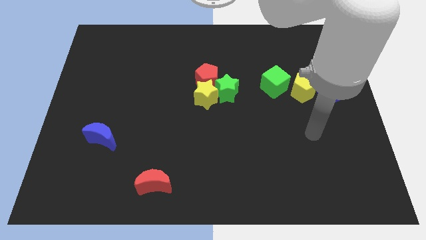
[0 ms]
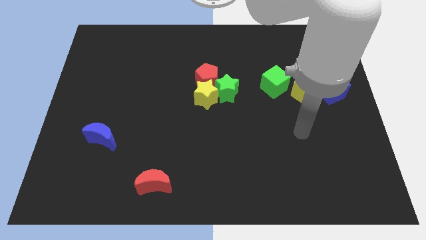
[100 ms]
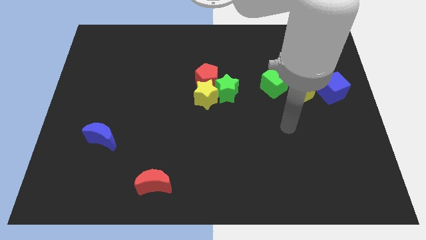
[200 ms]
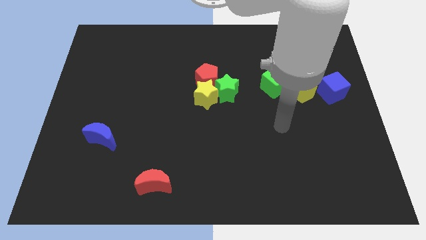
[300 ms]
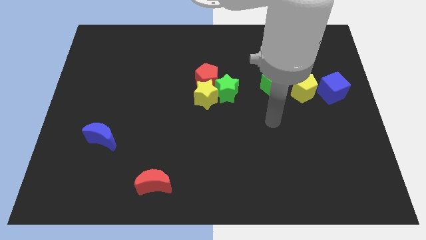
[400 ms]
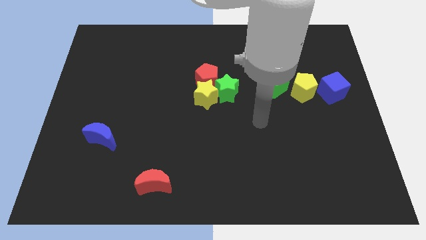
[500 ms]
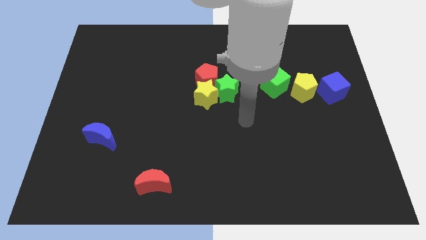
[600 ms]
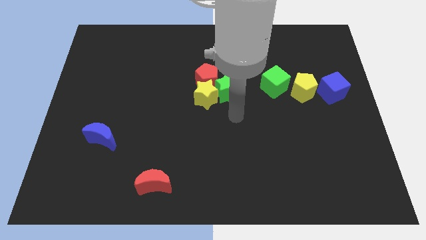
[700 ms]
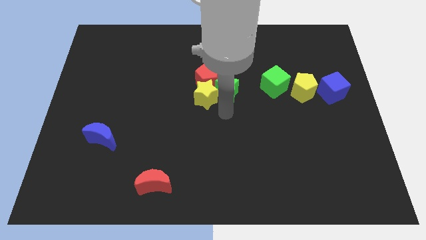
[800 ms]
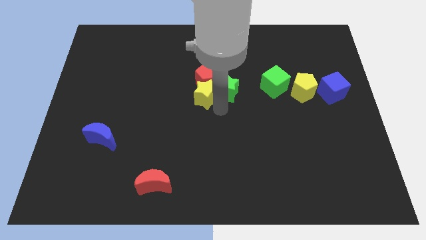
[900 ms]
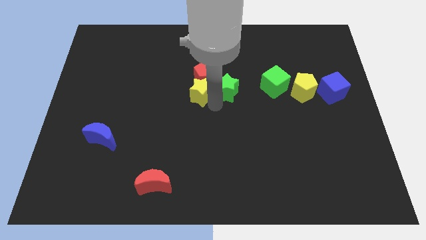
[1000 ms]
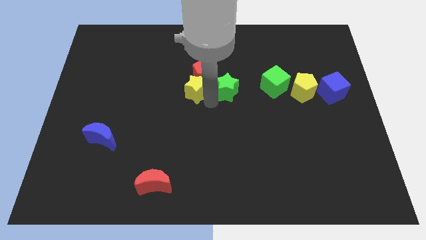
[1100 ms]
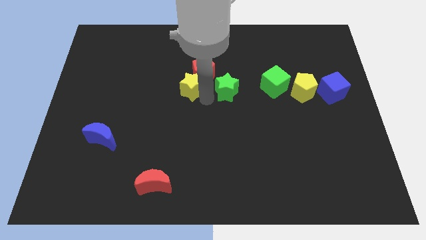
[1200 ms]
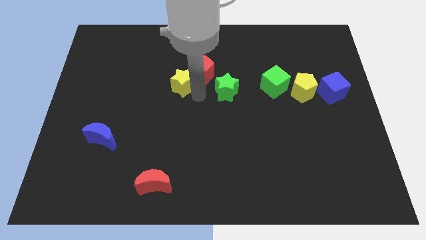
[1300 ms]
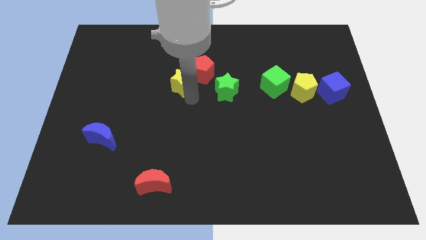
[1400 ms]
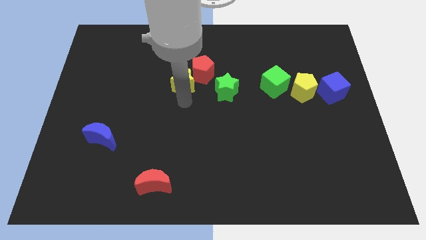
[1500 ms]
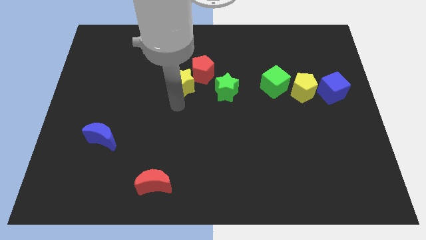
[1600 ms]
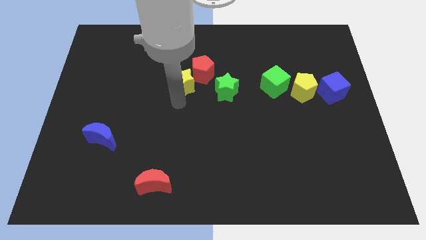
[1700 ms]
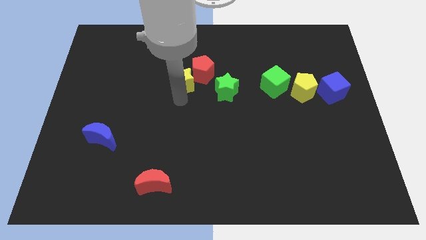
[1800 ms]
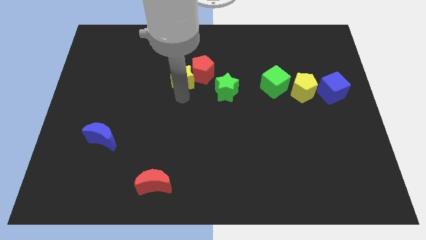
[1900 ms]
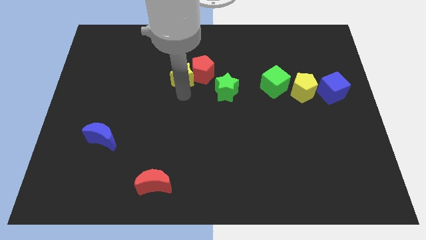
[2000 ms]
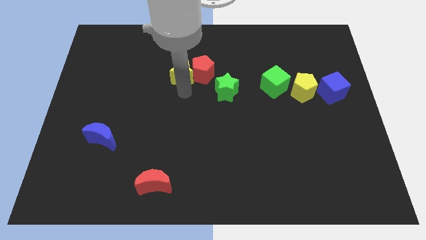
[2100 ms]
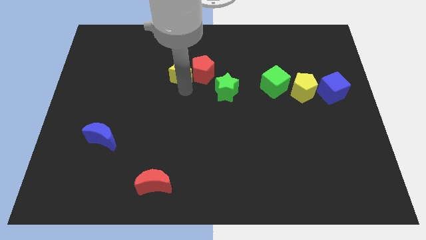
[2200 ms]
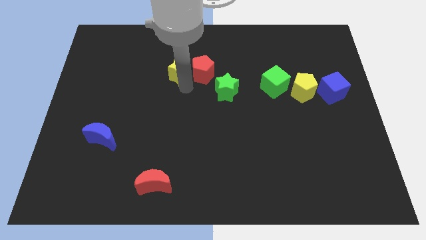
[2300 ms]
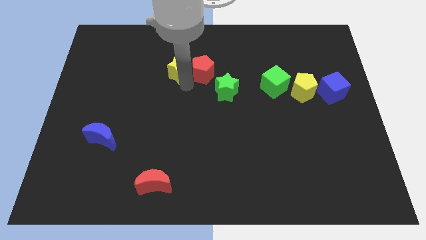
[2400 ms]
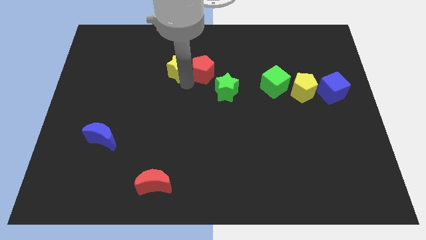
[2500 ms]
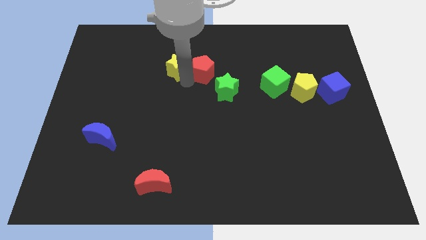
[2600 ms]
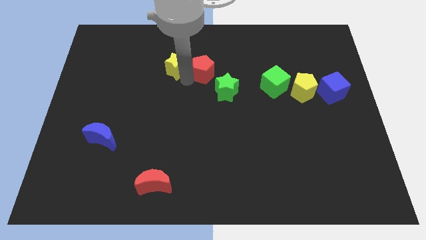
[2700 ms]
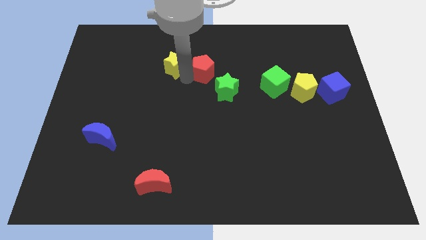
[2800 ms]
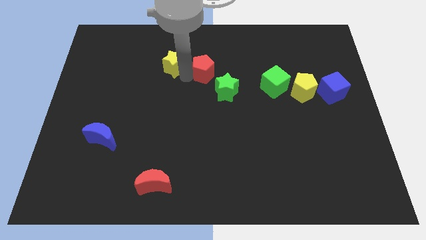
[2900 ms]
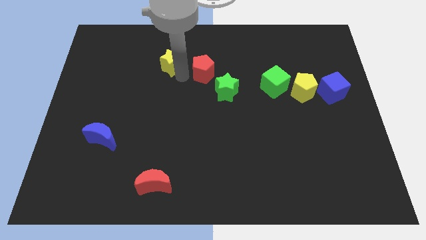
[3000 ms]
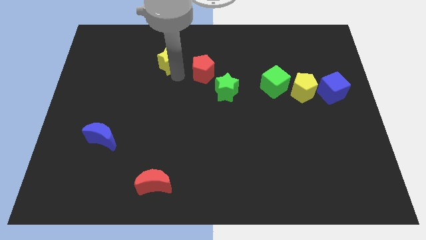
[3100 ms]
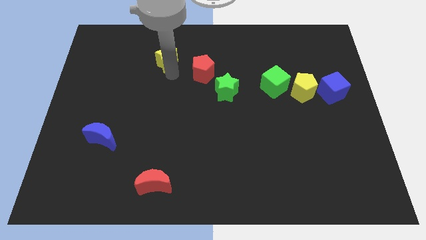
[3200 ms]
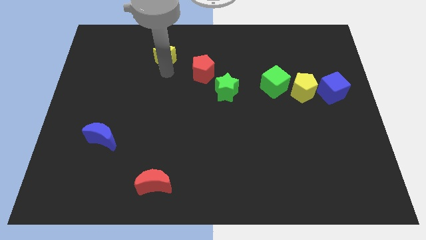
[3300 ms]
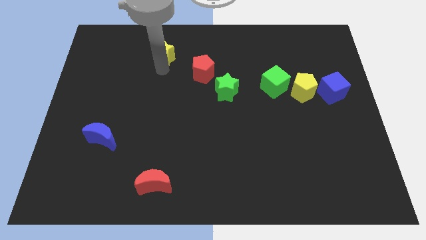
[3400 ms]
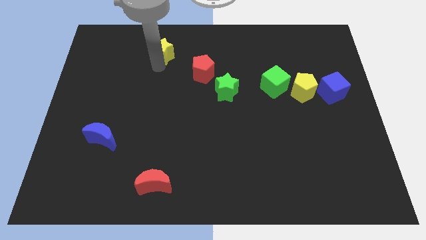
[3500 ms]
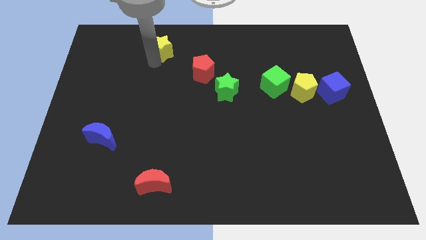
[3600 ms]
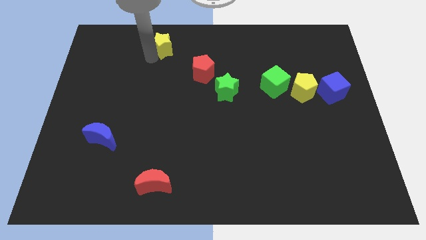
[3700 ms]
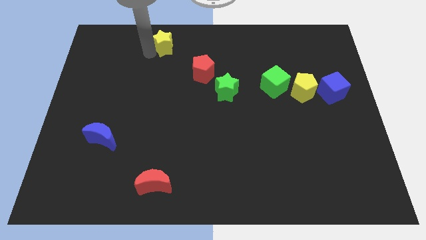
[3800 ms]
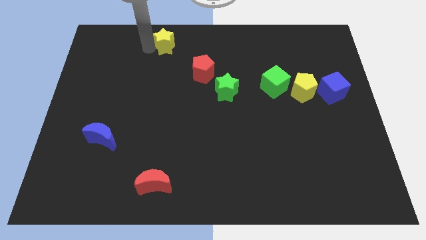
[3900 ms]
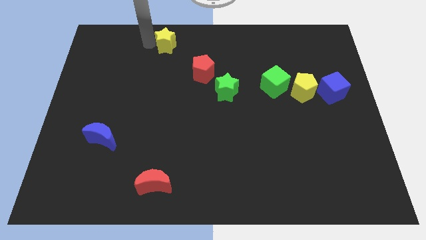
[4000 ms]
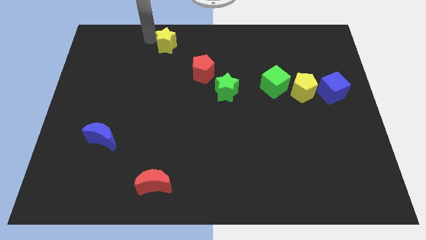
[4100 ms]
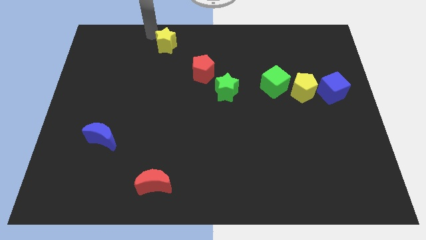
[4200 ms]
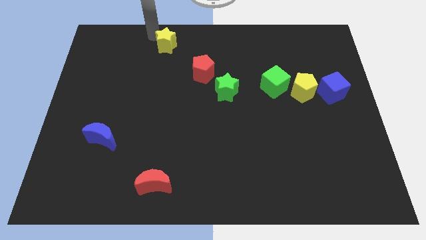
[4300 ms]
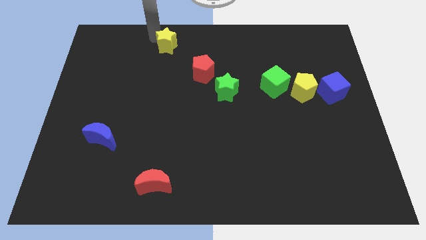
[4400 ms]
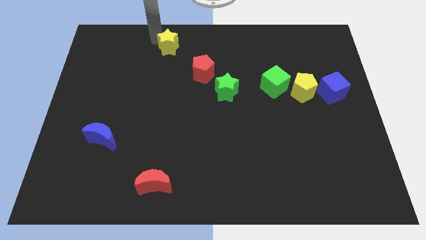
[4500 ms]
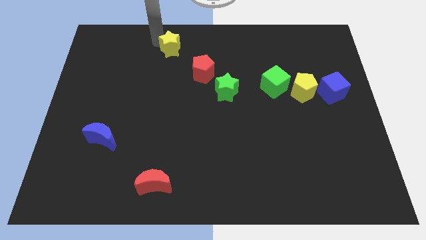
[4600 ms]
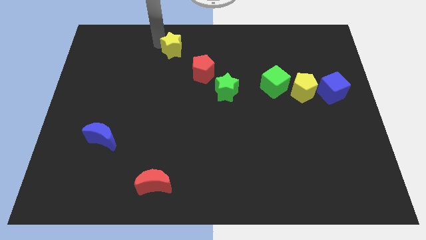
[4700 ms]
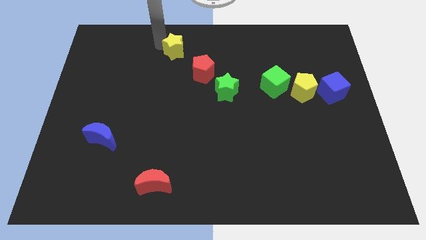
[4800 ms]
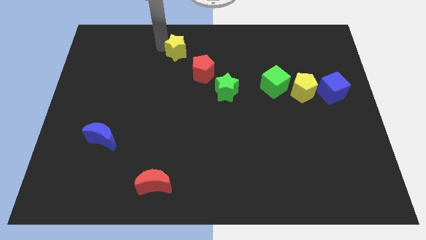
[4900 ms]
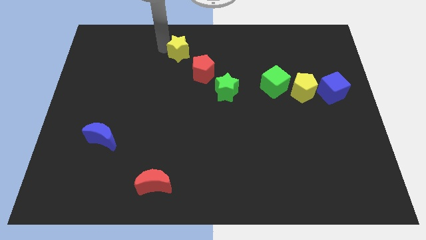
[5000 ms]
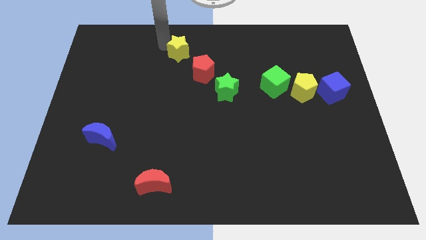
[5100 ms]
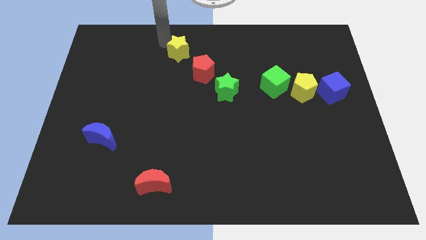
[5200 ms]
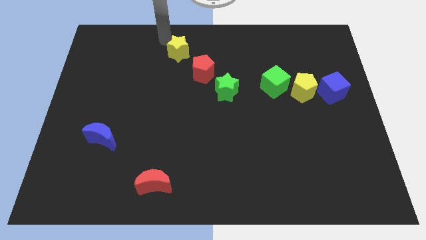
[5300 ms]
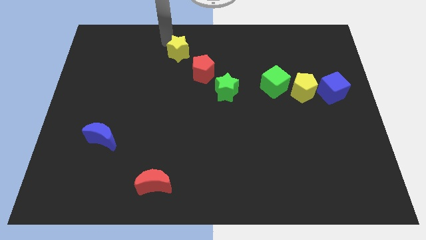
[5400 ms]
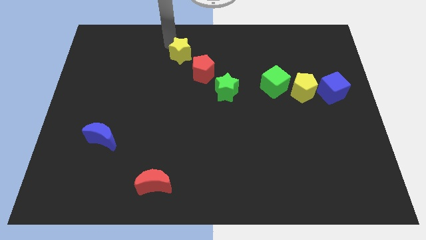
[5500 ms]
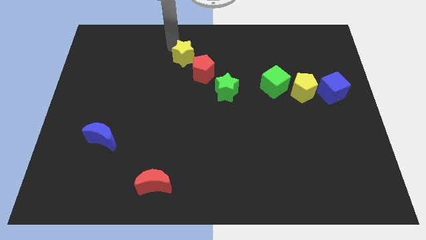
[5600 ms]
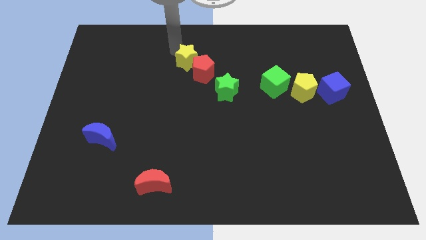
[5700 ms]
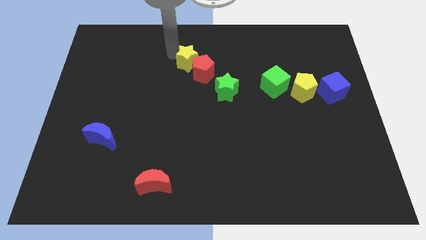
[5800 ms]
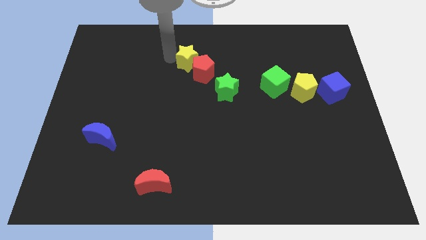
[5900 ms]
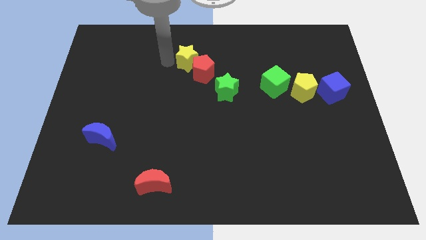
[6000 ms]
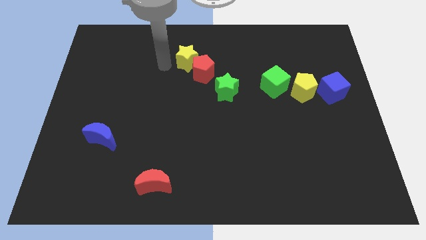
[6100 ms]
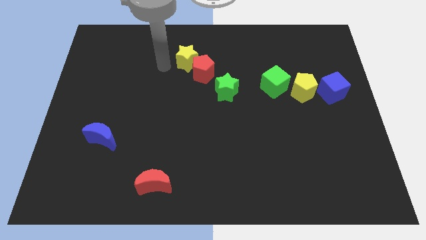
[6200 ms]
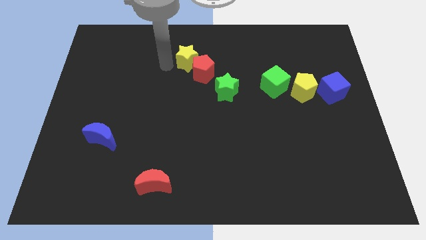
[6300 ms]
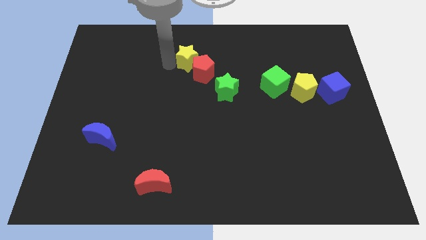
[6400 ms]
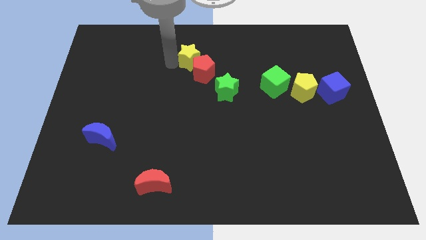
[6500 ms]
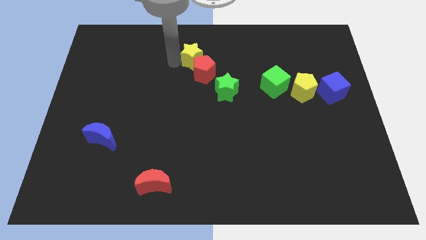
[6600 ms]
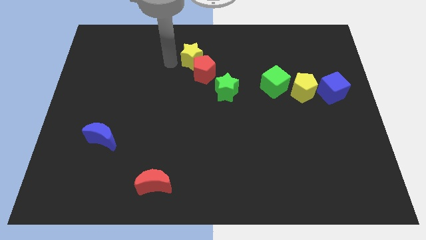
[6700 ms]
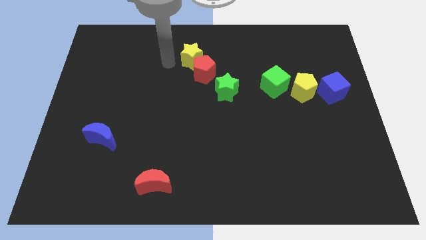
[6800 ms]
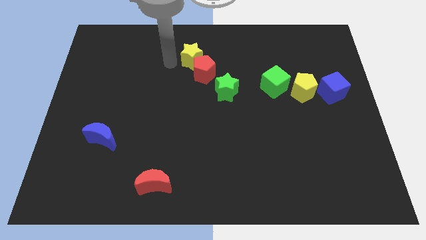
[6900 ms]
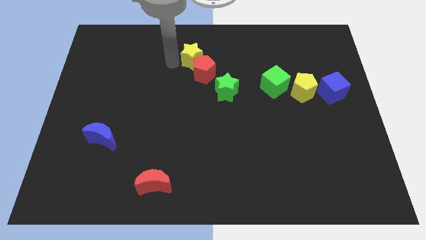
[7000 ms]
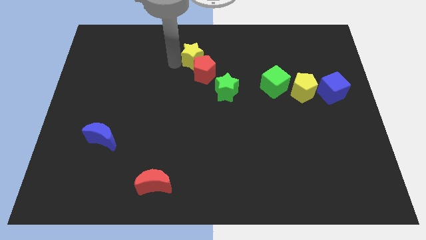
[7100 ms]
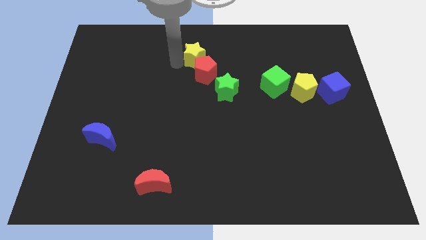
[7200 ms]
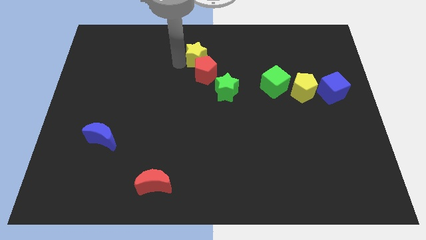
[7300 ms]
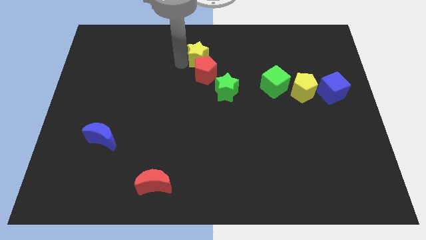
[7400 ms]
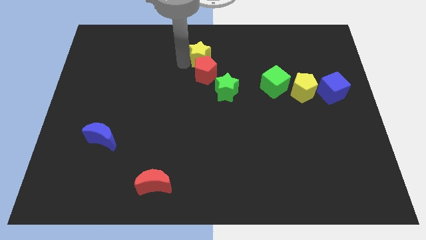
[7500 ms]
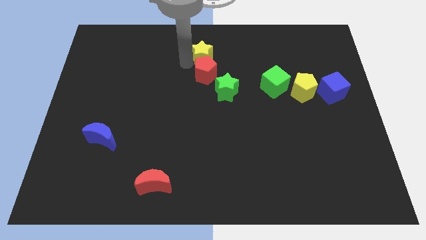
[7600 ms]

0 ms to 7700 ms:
slide the yellow star to the towards your base
